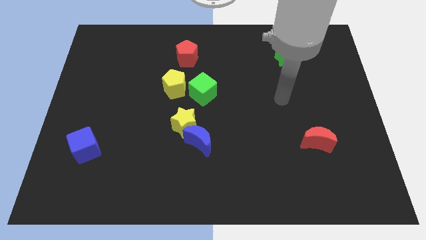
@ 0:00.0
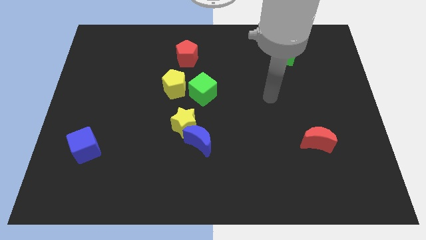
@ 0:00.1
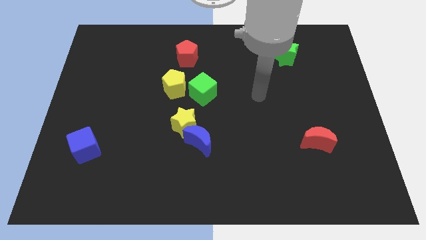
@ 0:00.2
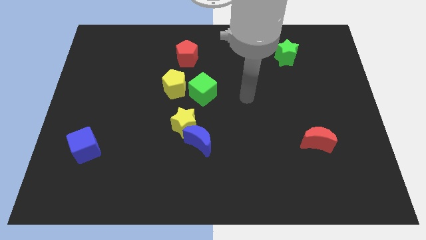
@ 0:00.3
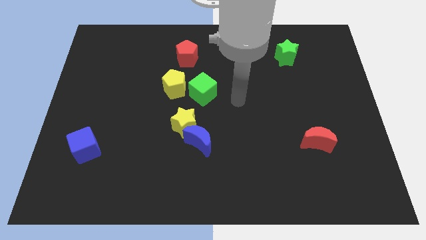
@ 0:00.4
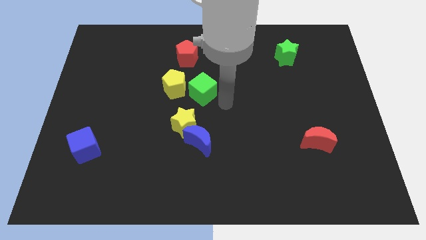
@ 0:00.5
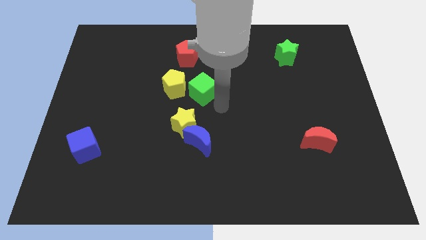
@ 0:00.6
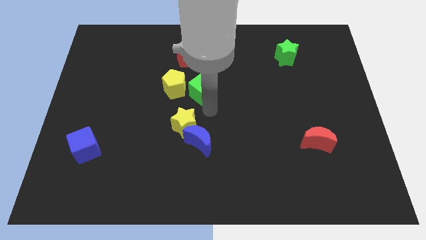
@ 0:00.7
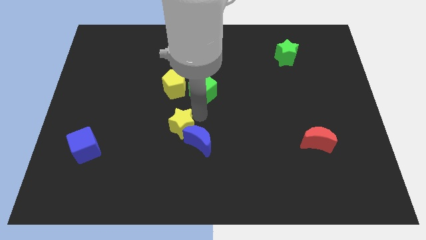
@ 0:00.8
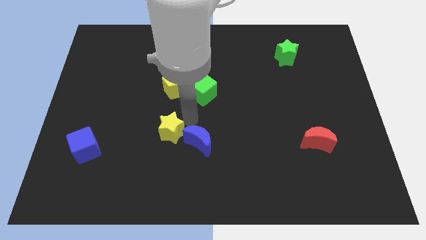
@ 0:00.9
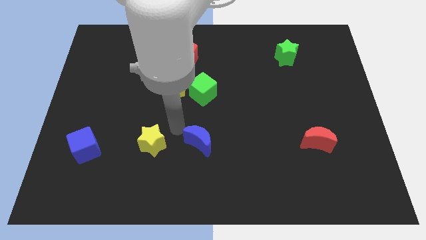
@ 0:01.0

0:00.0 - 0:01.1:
separate the blue moon from the yellow star

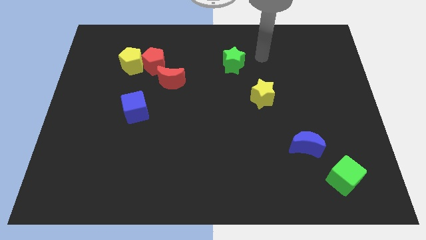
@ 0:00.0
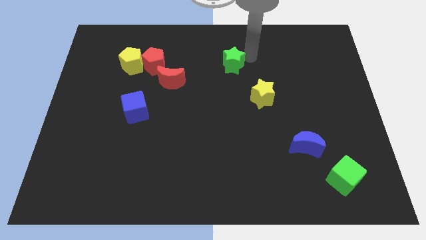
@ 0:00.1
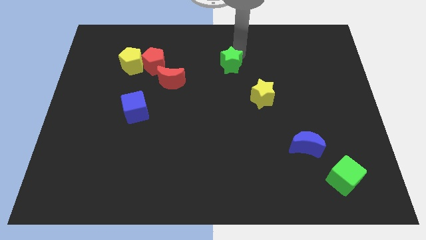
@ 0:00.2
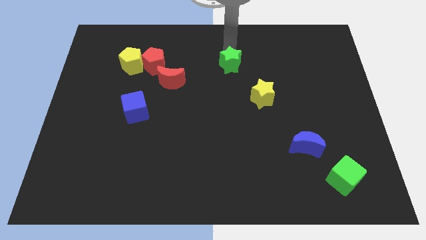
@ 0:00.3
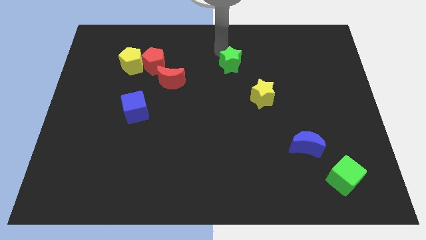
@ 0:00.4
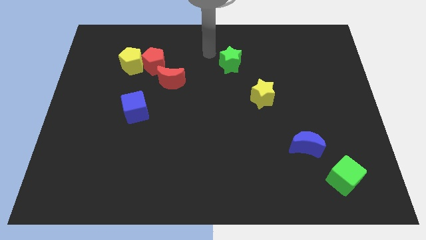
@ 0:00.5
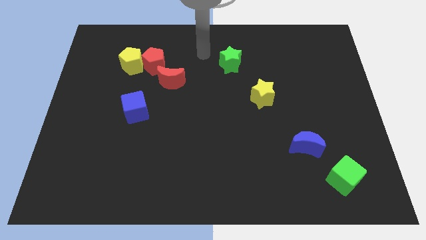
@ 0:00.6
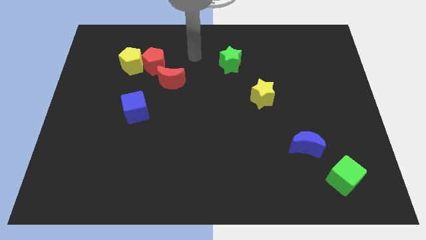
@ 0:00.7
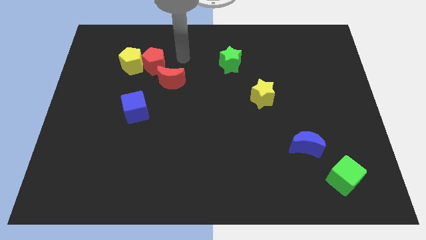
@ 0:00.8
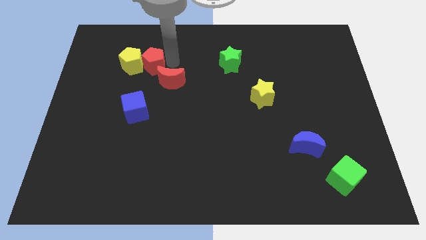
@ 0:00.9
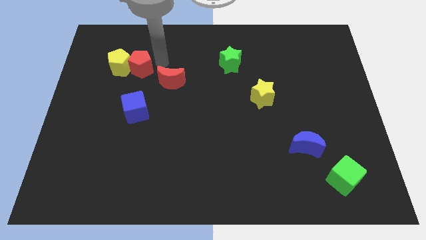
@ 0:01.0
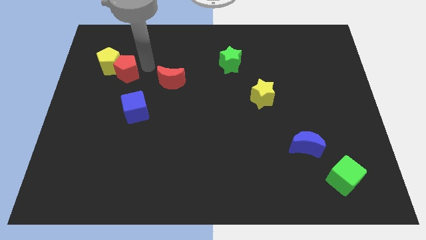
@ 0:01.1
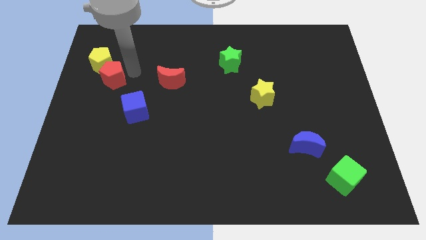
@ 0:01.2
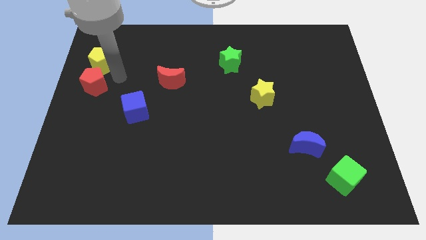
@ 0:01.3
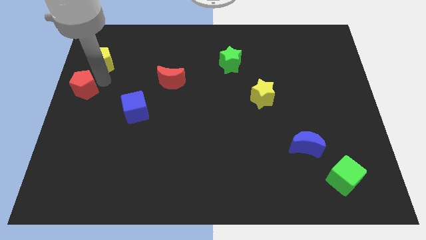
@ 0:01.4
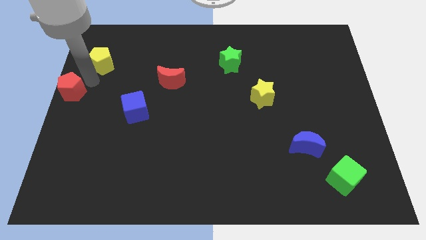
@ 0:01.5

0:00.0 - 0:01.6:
separate the yellow pentagon from the red pentagon

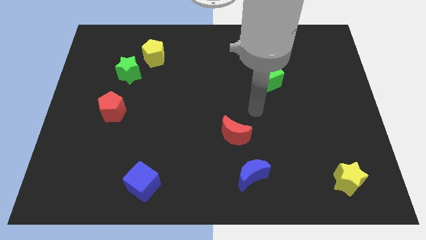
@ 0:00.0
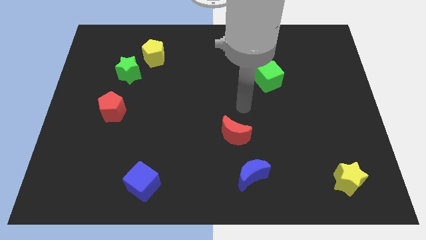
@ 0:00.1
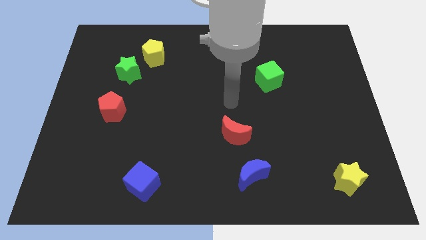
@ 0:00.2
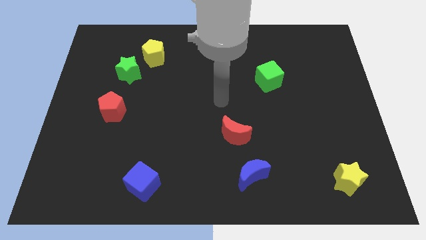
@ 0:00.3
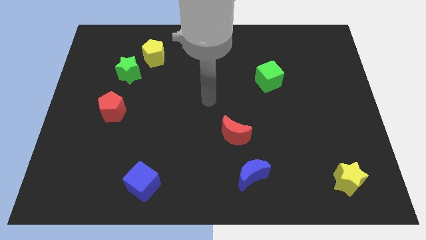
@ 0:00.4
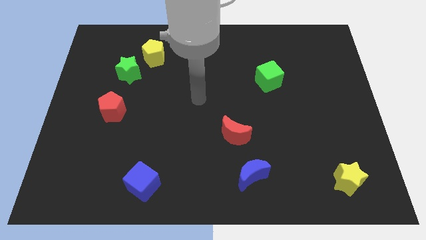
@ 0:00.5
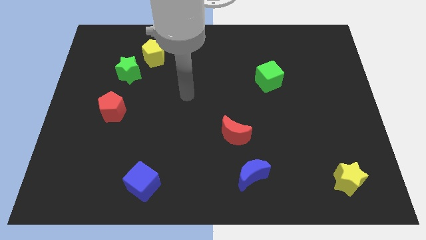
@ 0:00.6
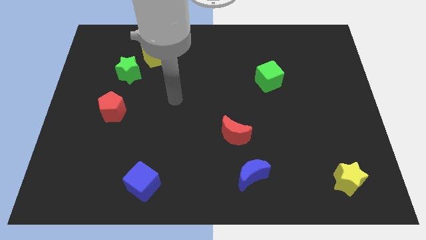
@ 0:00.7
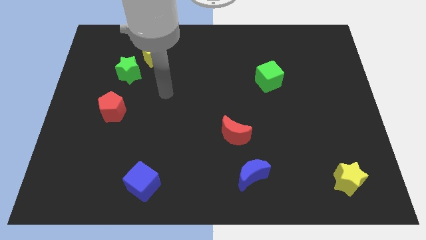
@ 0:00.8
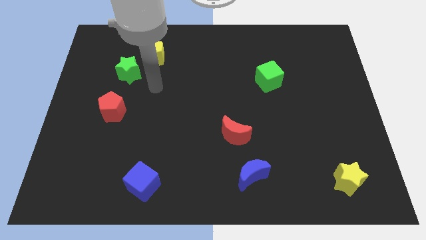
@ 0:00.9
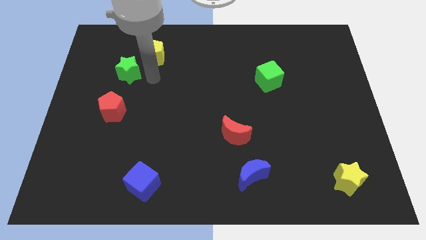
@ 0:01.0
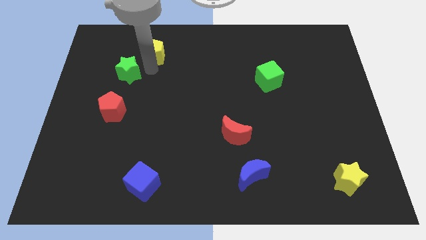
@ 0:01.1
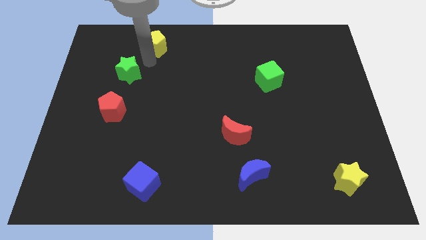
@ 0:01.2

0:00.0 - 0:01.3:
separate the green star from the yellow pentagon

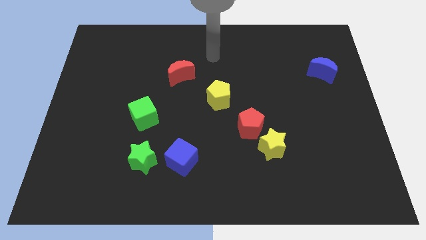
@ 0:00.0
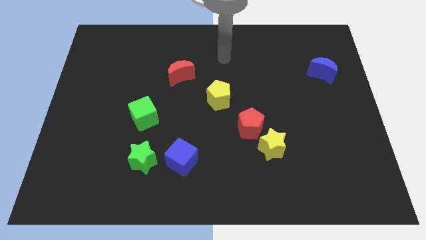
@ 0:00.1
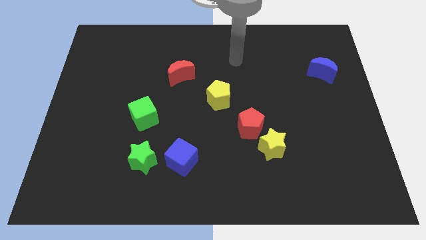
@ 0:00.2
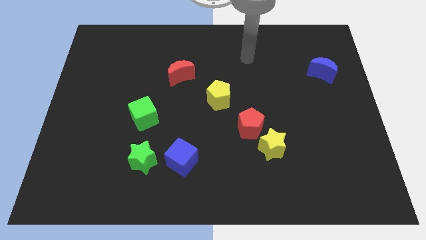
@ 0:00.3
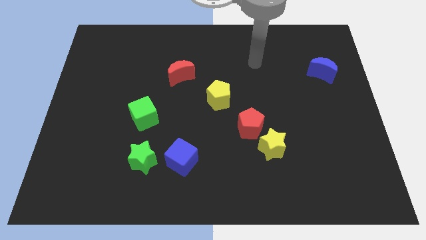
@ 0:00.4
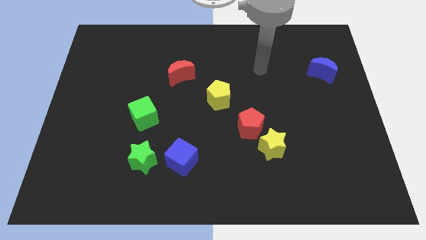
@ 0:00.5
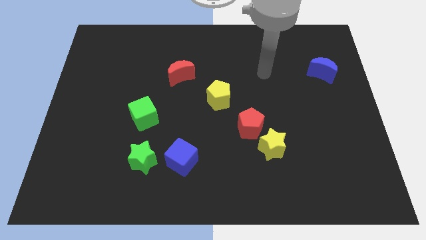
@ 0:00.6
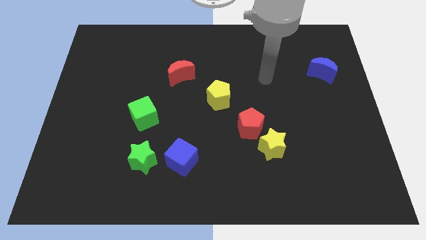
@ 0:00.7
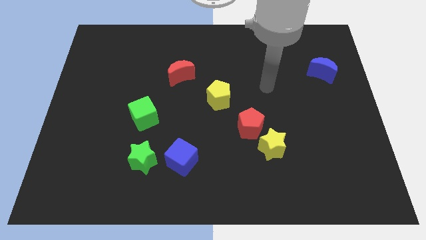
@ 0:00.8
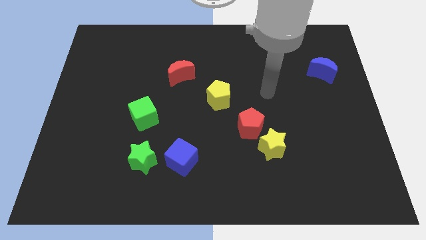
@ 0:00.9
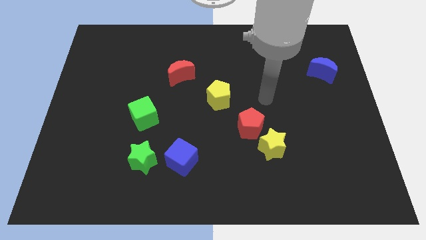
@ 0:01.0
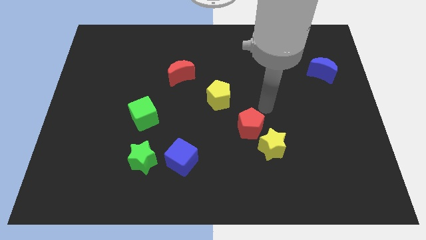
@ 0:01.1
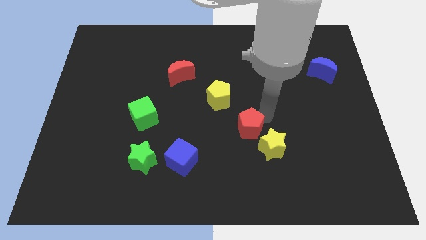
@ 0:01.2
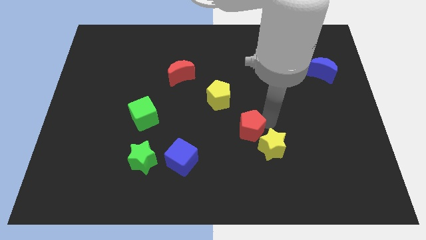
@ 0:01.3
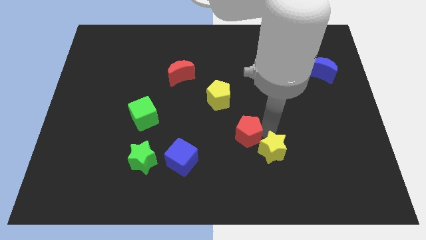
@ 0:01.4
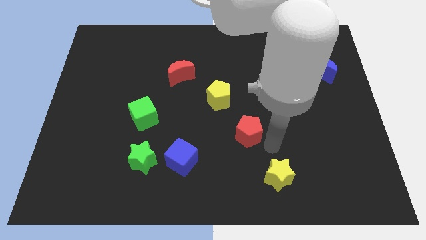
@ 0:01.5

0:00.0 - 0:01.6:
move the red pentagon away from the yellow star

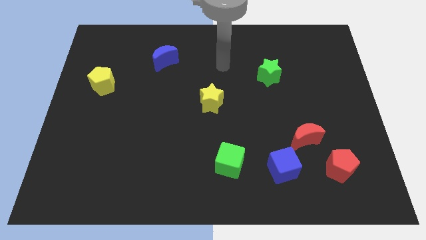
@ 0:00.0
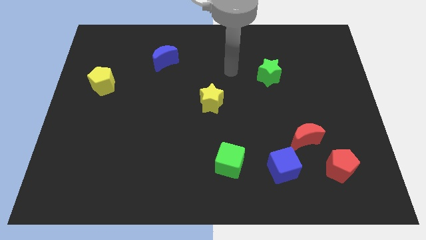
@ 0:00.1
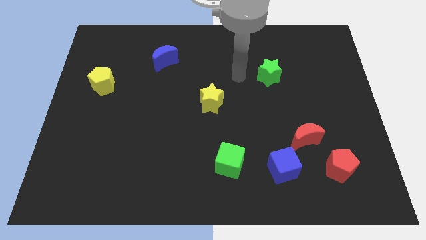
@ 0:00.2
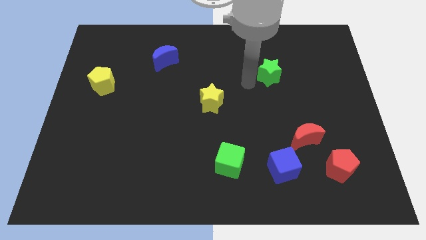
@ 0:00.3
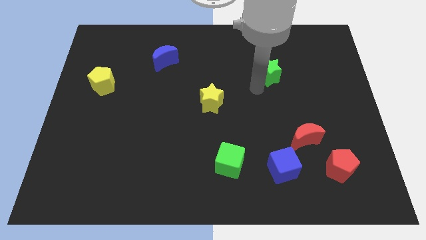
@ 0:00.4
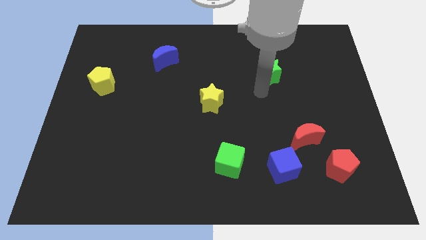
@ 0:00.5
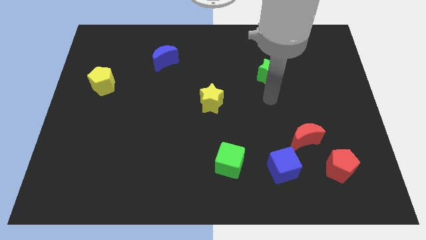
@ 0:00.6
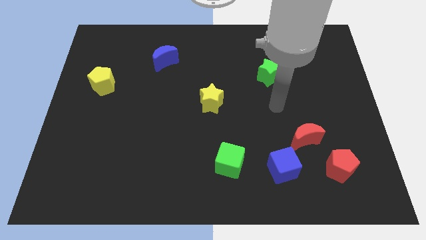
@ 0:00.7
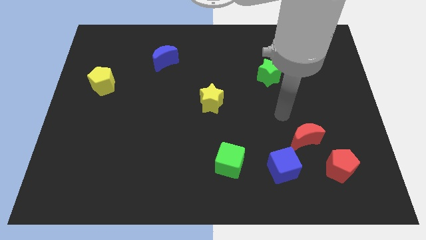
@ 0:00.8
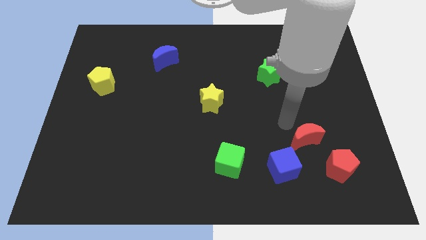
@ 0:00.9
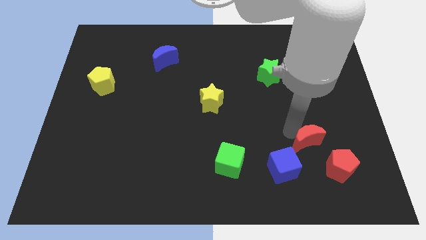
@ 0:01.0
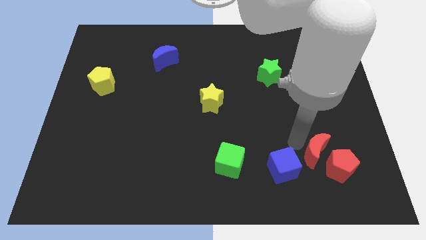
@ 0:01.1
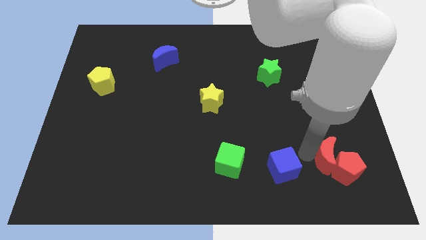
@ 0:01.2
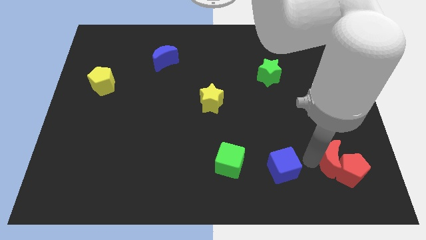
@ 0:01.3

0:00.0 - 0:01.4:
pull the blue cube apart from the red moon

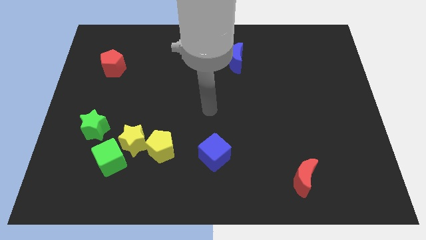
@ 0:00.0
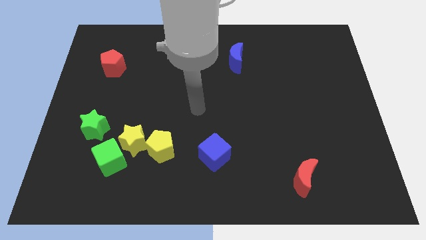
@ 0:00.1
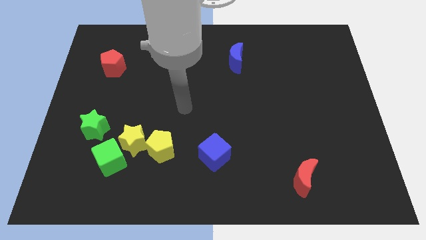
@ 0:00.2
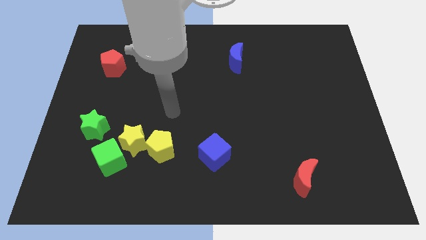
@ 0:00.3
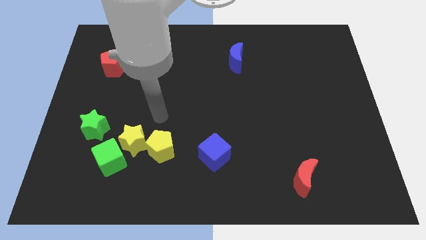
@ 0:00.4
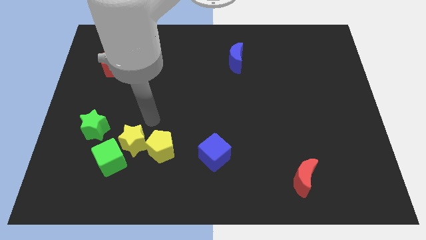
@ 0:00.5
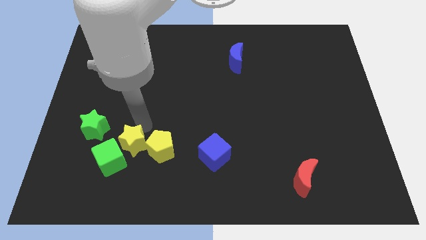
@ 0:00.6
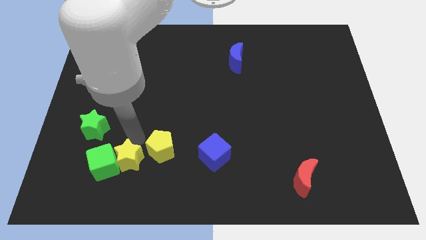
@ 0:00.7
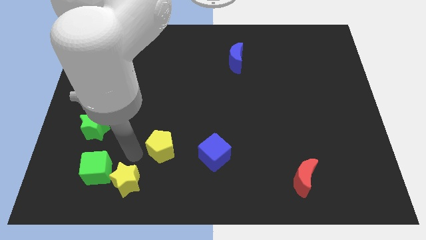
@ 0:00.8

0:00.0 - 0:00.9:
pull the yellow pentagon apart from the yellow star

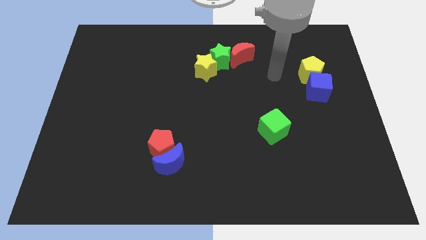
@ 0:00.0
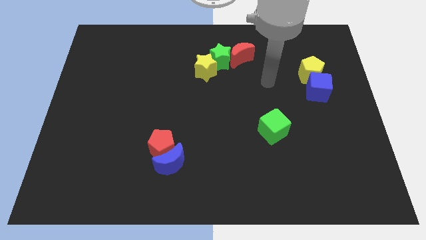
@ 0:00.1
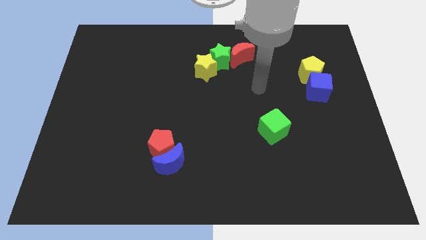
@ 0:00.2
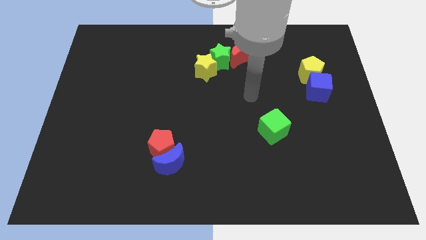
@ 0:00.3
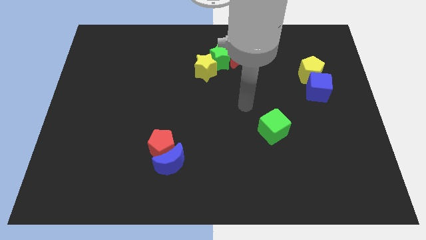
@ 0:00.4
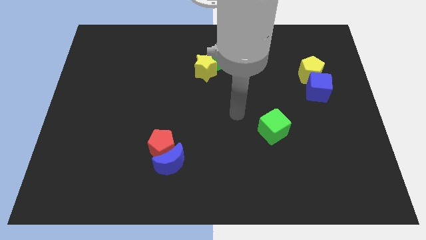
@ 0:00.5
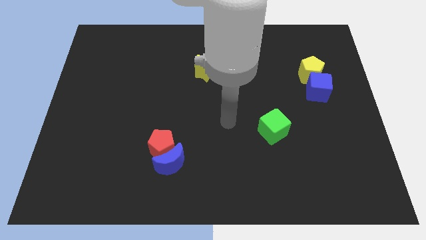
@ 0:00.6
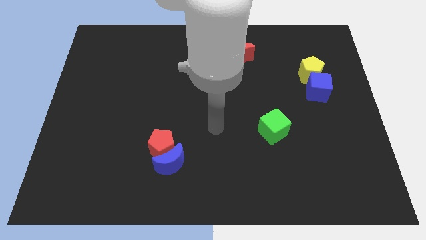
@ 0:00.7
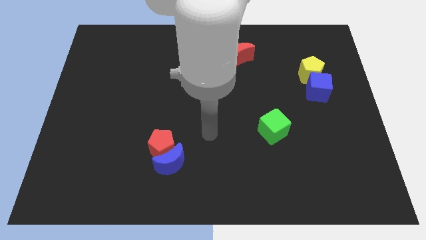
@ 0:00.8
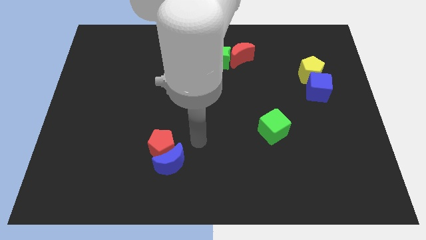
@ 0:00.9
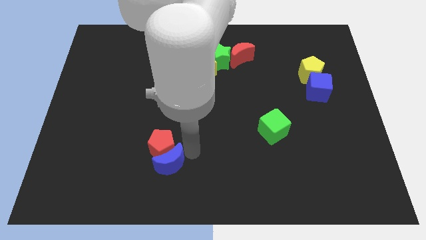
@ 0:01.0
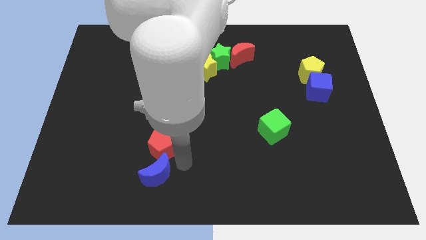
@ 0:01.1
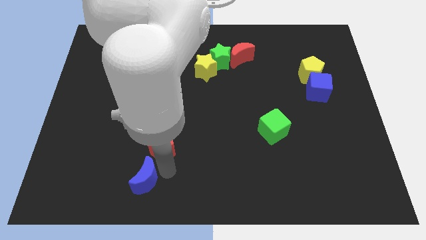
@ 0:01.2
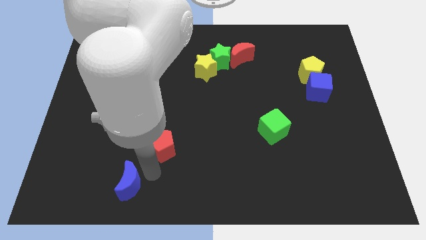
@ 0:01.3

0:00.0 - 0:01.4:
move the red pentagon away from the blue moon

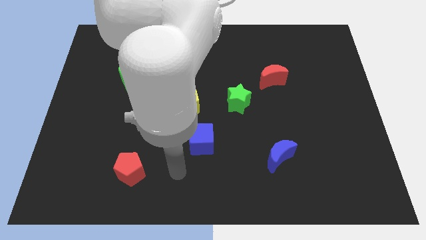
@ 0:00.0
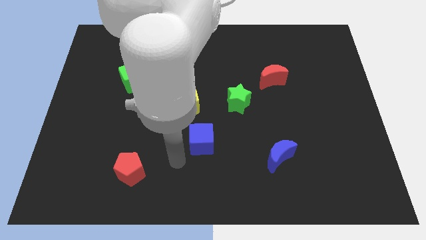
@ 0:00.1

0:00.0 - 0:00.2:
pull the yellow star apart from the yellow pentagon
